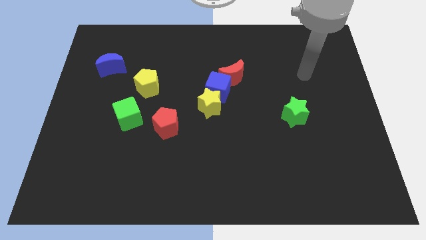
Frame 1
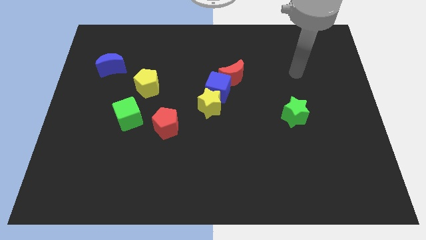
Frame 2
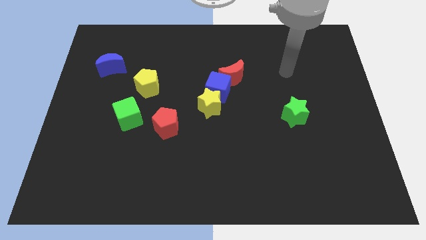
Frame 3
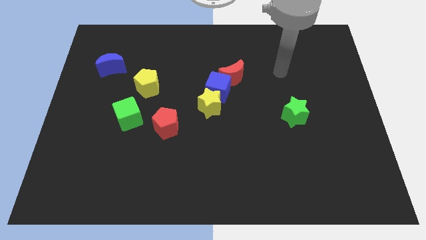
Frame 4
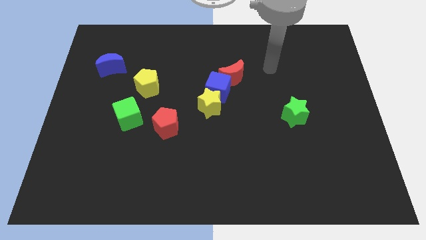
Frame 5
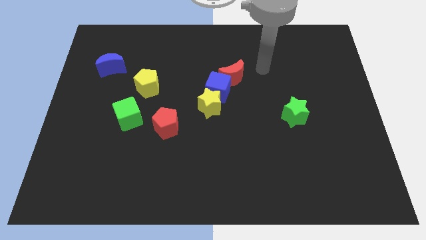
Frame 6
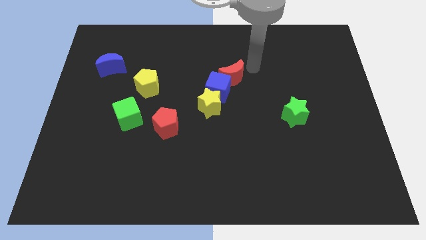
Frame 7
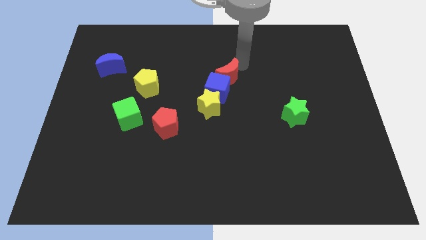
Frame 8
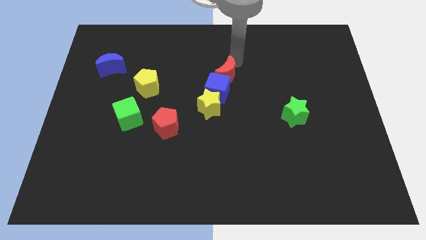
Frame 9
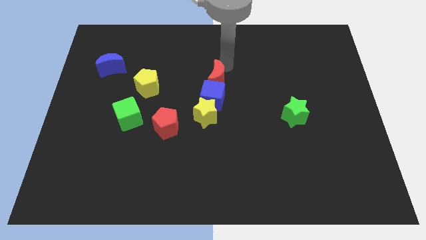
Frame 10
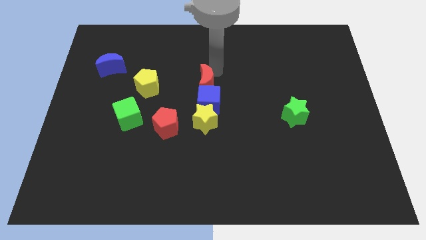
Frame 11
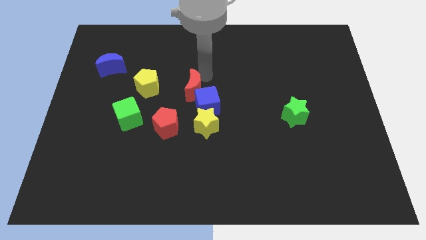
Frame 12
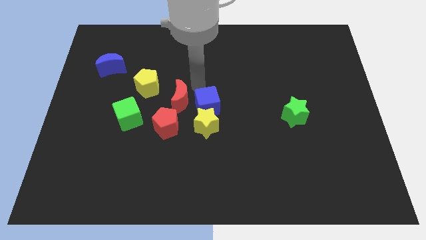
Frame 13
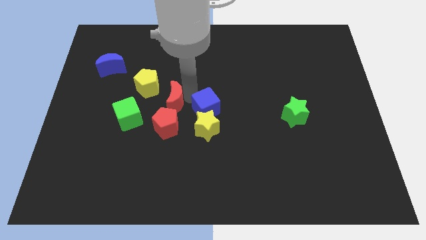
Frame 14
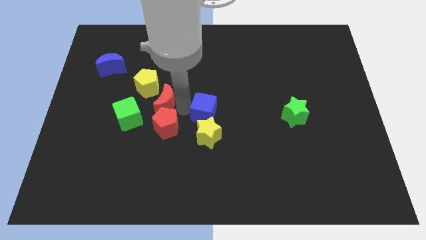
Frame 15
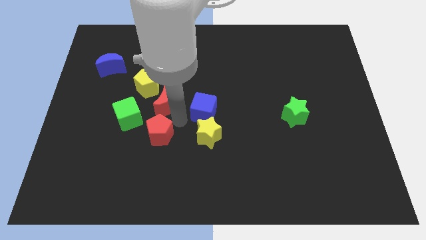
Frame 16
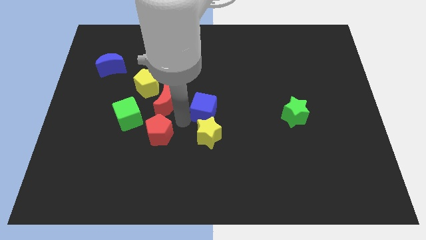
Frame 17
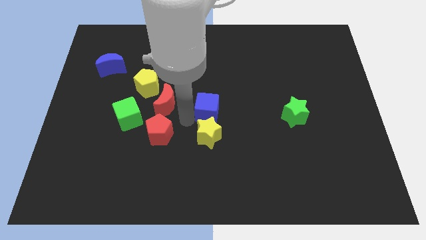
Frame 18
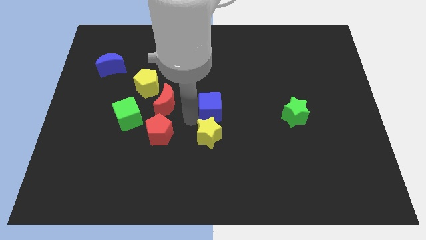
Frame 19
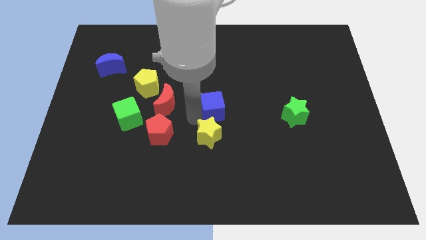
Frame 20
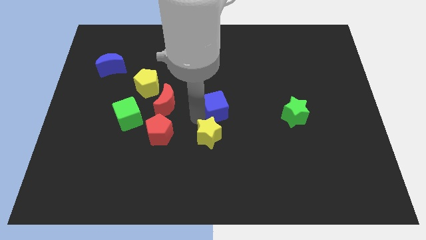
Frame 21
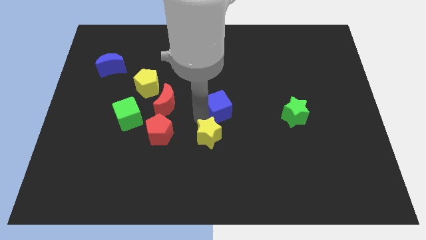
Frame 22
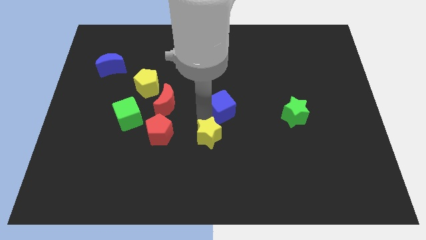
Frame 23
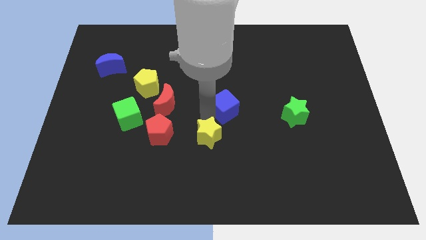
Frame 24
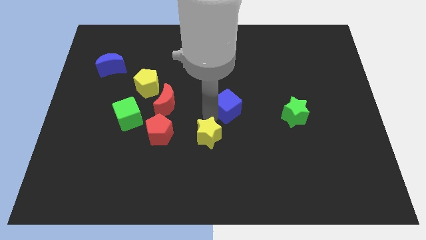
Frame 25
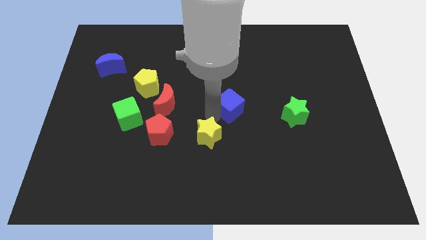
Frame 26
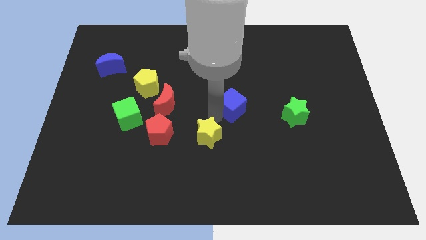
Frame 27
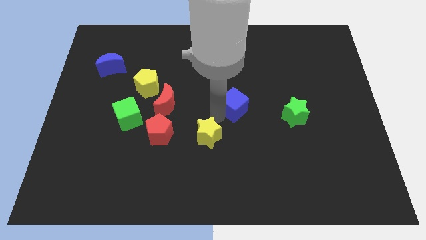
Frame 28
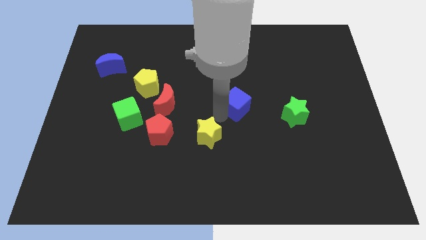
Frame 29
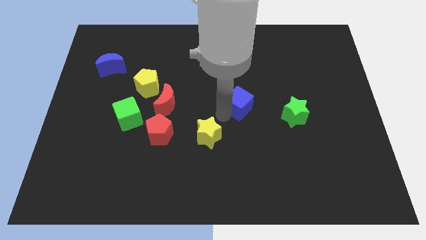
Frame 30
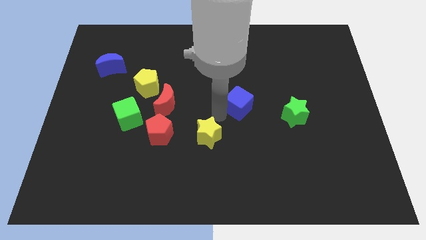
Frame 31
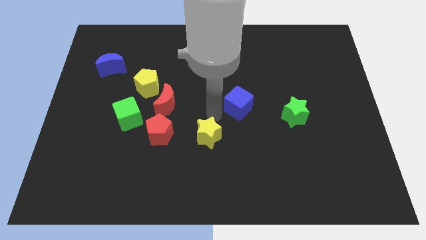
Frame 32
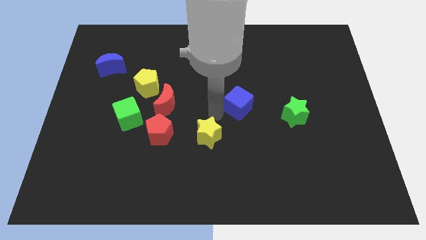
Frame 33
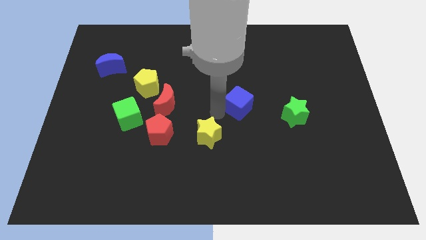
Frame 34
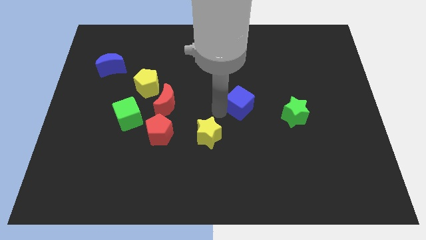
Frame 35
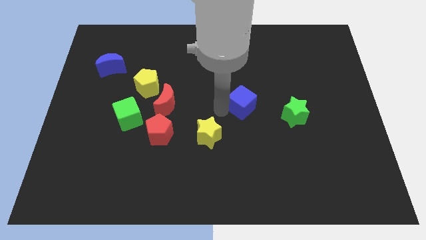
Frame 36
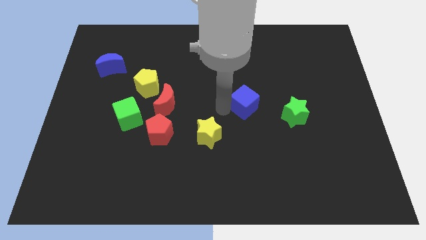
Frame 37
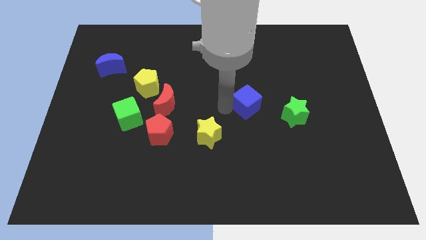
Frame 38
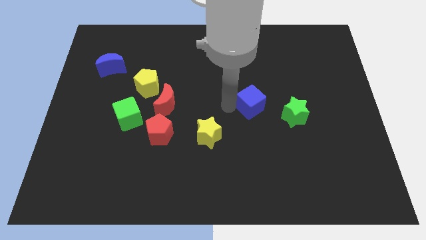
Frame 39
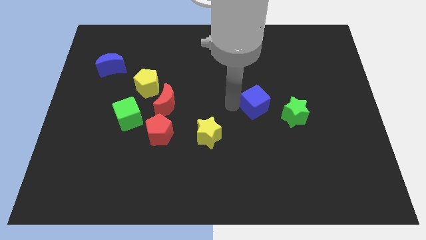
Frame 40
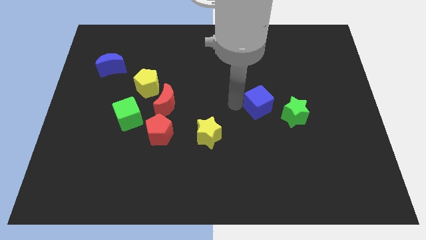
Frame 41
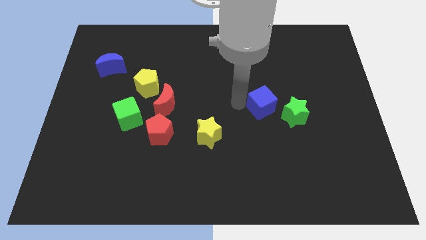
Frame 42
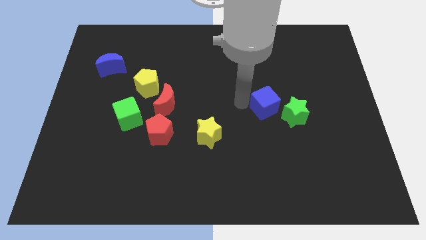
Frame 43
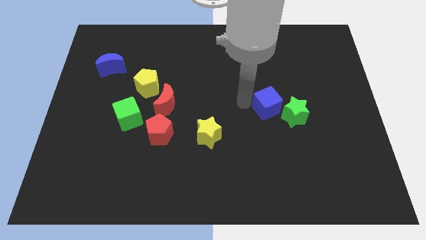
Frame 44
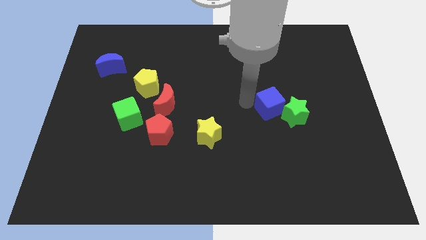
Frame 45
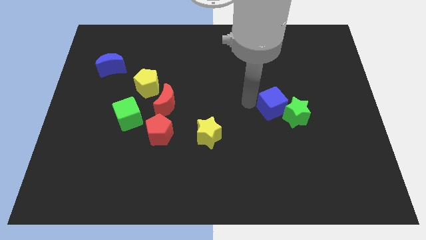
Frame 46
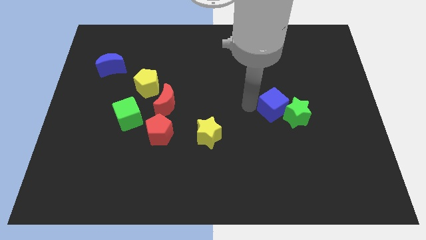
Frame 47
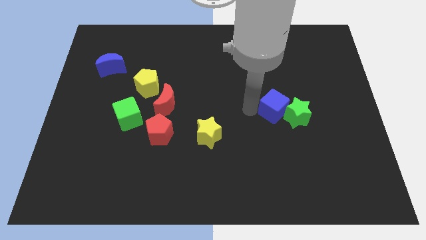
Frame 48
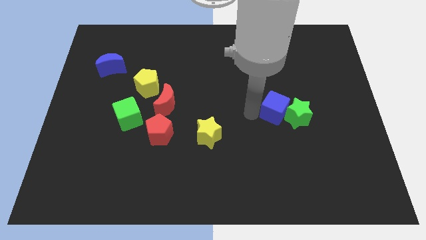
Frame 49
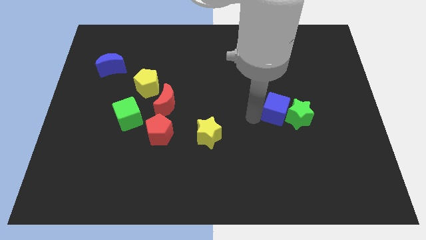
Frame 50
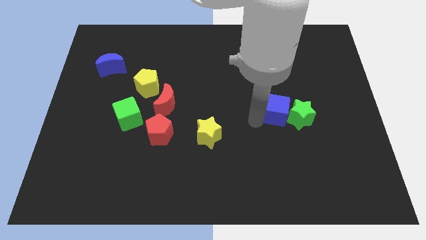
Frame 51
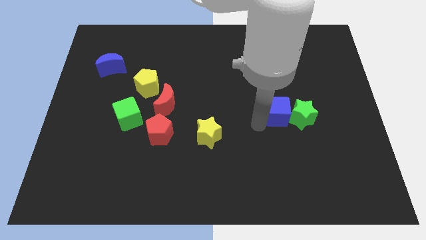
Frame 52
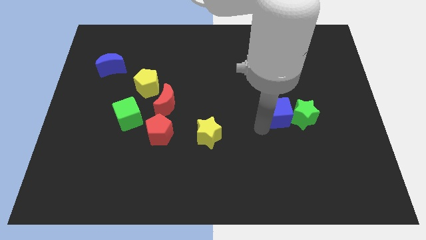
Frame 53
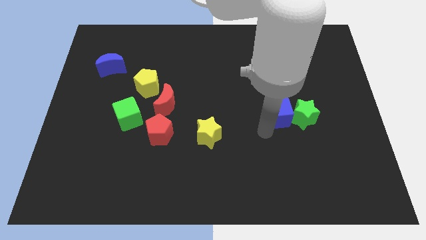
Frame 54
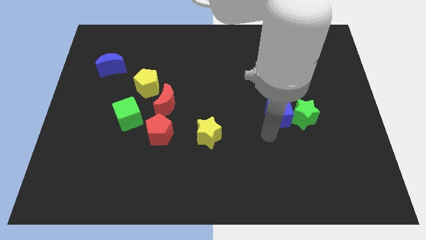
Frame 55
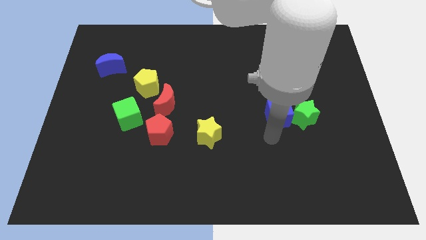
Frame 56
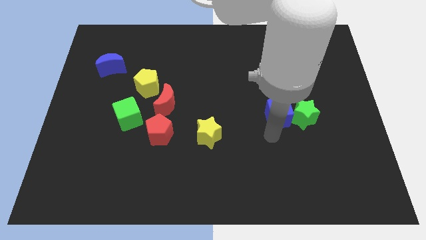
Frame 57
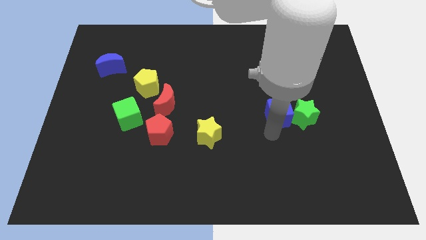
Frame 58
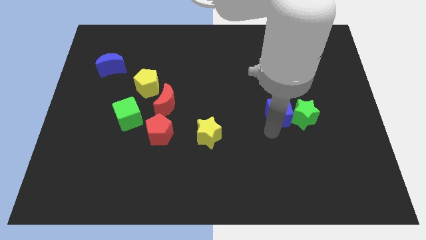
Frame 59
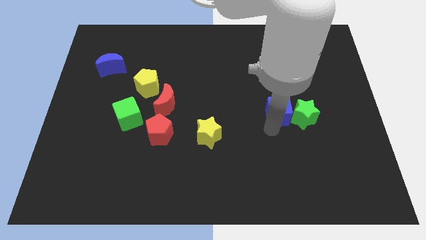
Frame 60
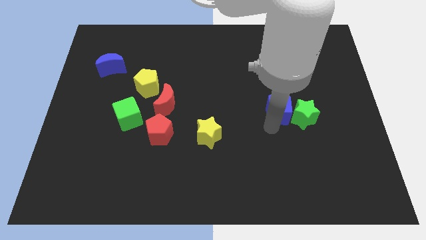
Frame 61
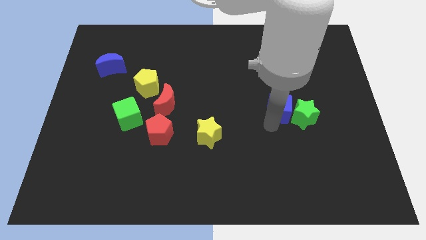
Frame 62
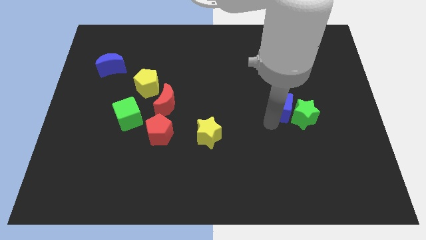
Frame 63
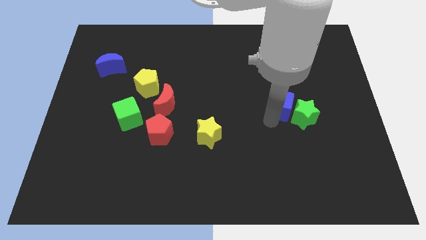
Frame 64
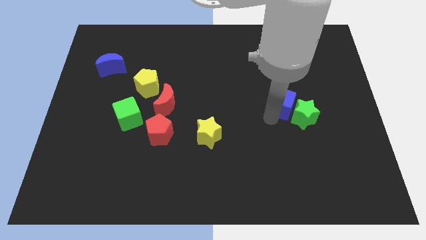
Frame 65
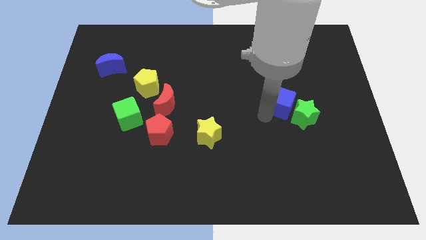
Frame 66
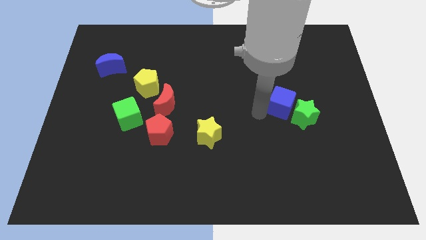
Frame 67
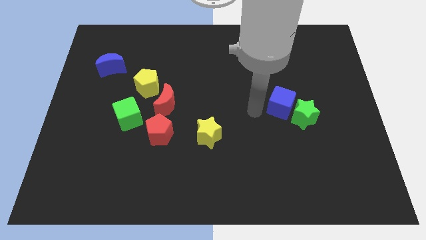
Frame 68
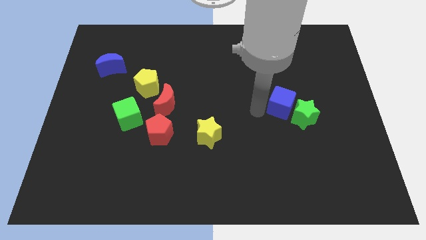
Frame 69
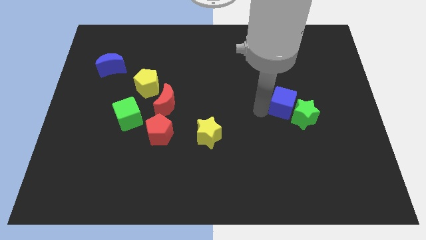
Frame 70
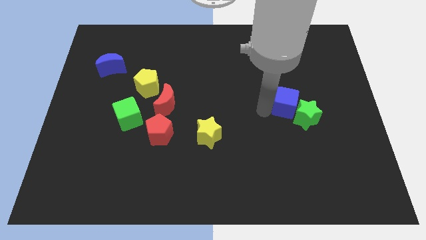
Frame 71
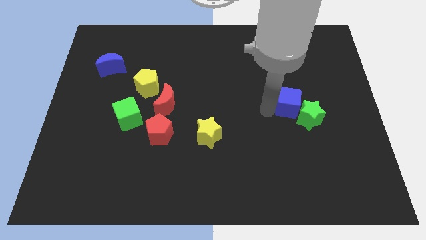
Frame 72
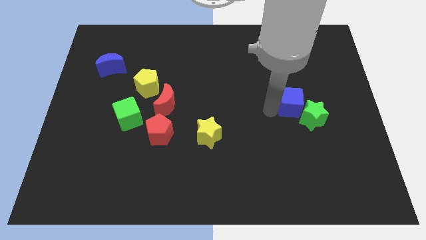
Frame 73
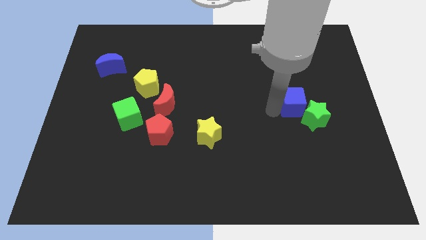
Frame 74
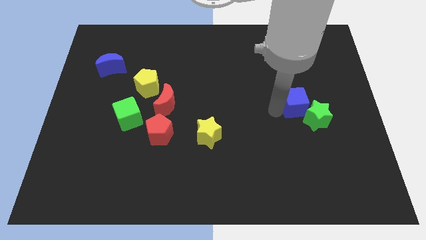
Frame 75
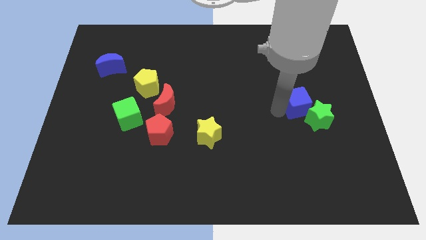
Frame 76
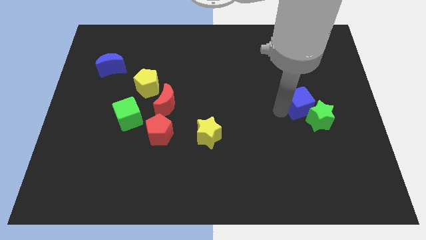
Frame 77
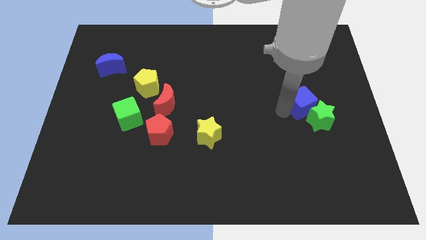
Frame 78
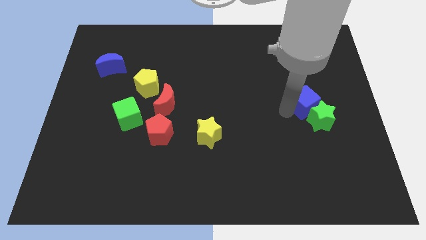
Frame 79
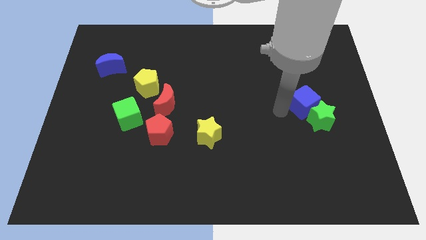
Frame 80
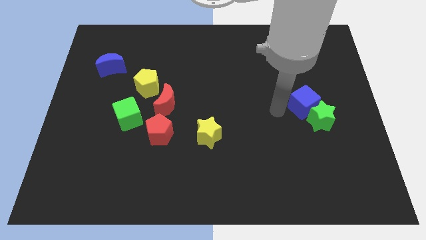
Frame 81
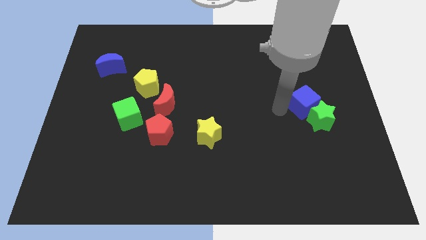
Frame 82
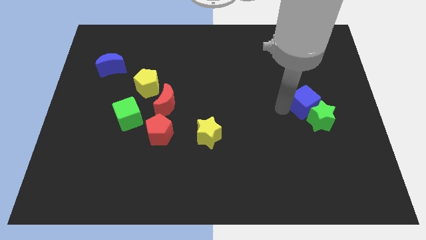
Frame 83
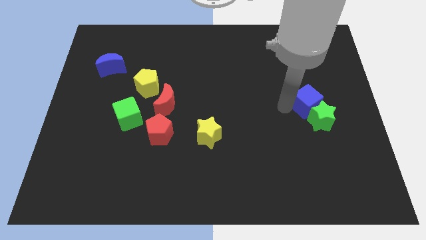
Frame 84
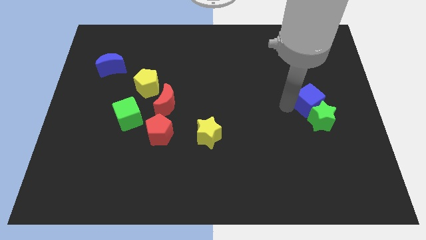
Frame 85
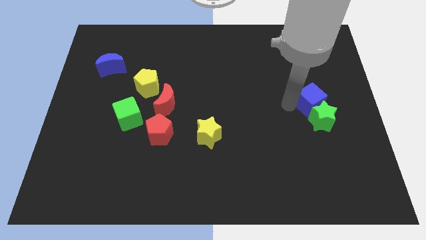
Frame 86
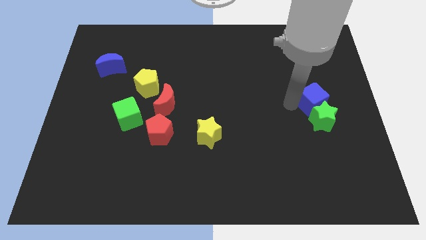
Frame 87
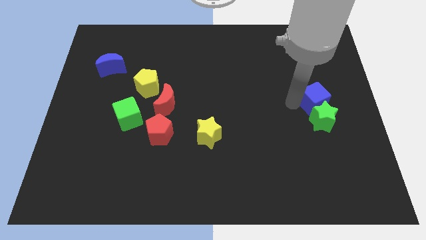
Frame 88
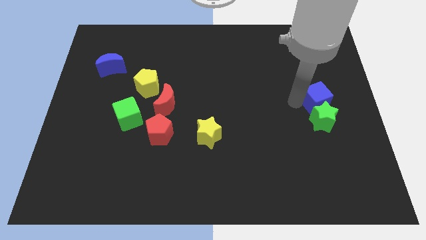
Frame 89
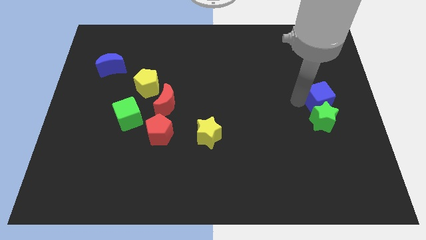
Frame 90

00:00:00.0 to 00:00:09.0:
move the blue cube to the center right
